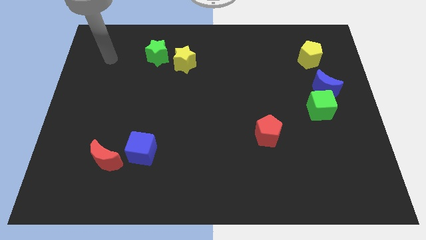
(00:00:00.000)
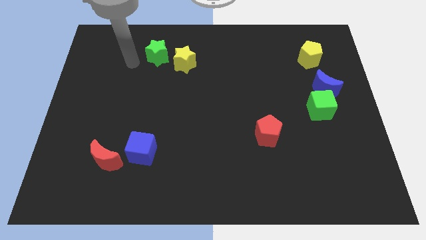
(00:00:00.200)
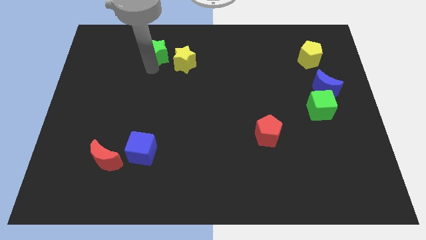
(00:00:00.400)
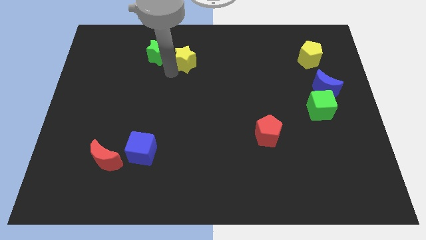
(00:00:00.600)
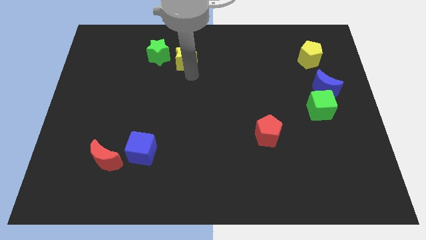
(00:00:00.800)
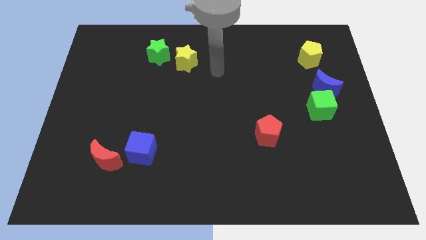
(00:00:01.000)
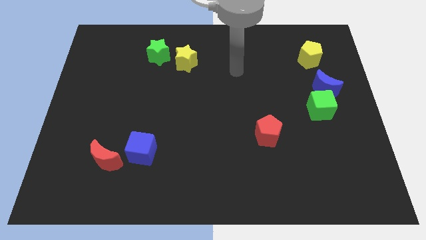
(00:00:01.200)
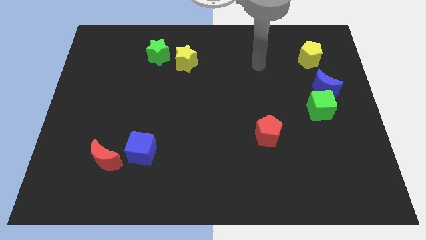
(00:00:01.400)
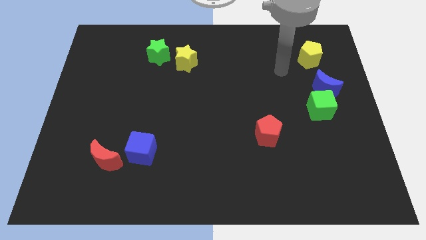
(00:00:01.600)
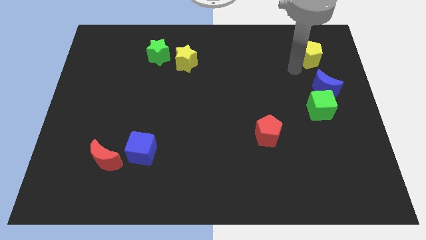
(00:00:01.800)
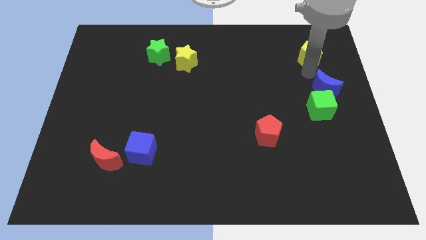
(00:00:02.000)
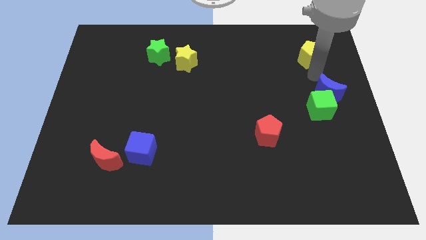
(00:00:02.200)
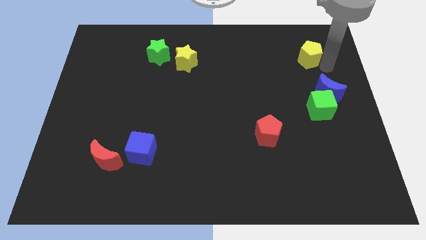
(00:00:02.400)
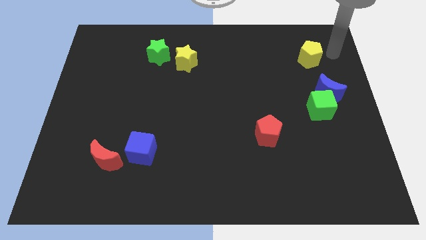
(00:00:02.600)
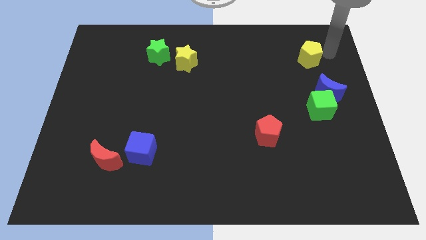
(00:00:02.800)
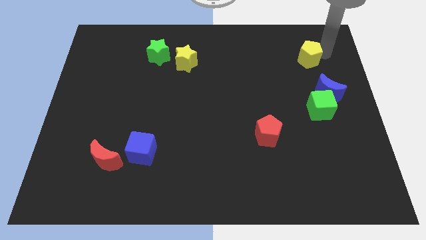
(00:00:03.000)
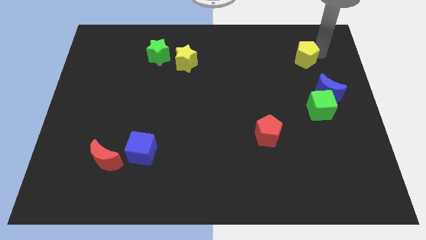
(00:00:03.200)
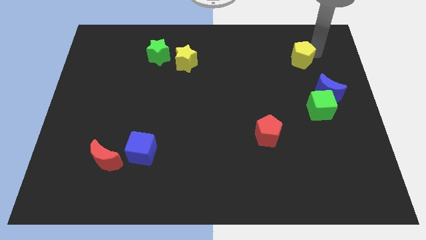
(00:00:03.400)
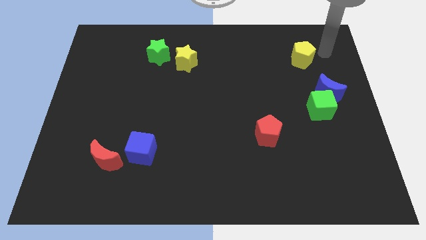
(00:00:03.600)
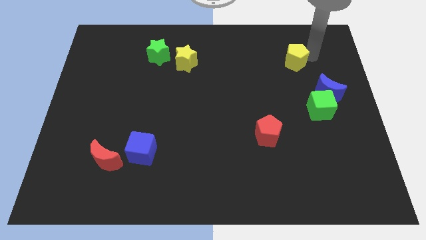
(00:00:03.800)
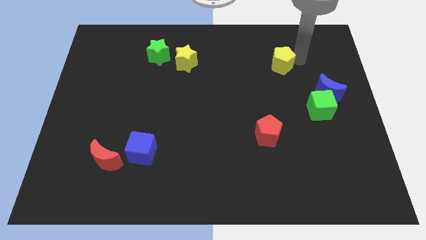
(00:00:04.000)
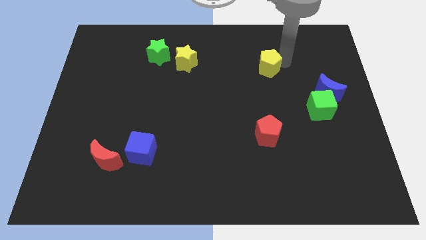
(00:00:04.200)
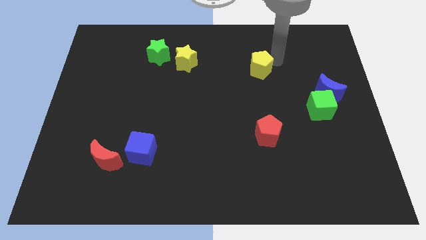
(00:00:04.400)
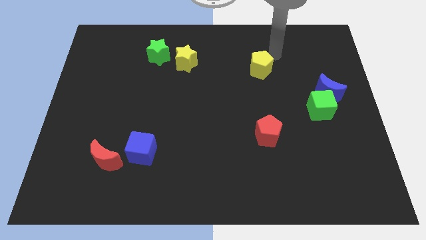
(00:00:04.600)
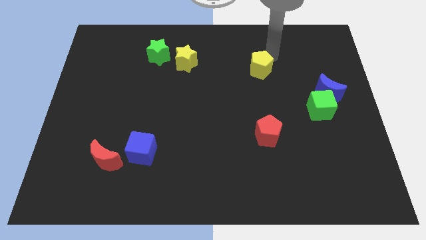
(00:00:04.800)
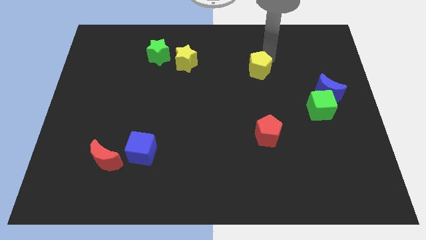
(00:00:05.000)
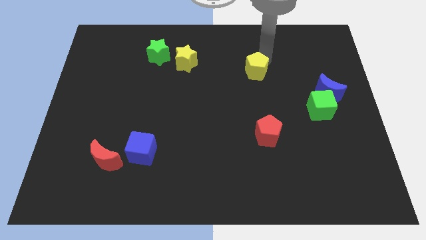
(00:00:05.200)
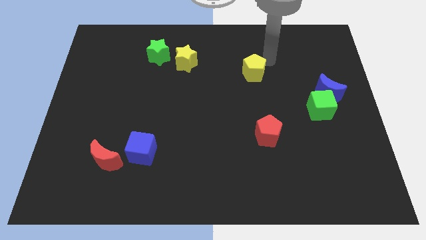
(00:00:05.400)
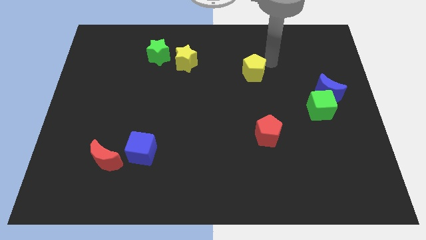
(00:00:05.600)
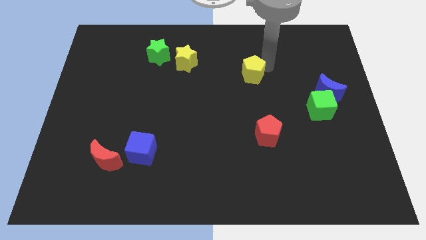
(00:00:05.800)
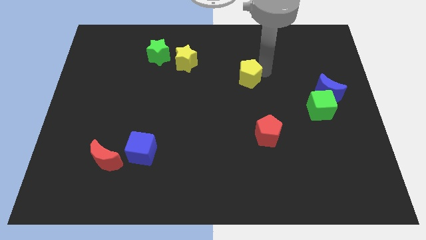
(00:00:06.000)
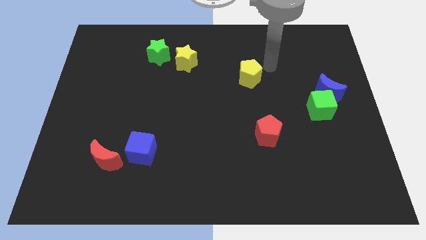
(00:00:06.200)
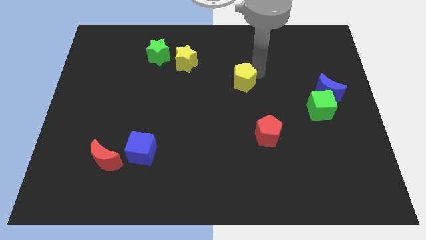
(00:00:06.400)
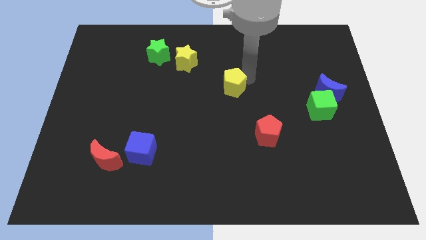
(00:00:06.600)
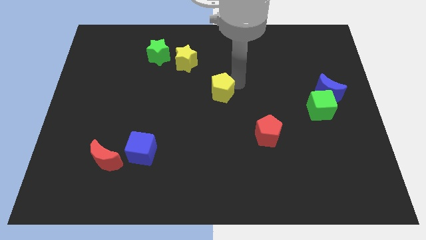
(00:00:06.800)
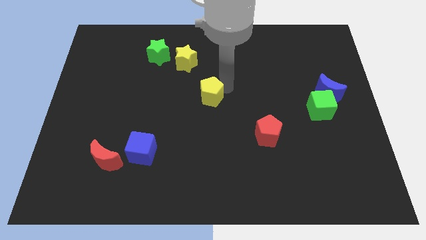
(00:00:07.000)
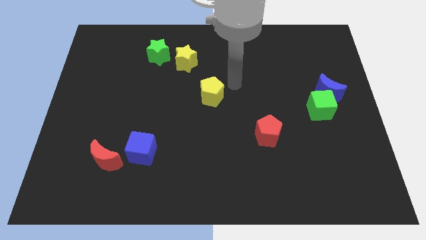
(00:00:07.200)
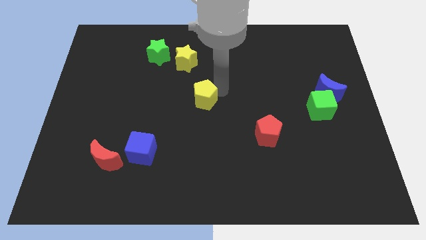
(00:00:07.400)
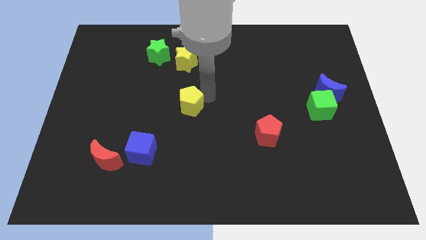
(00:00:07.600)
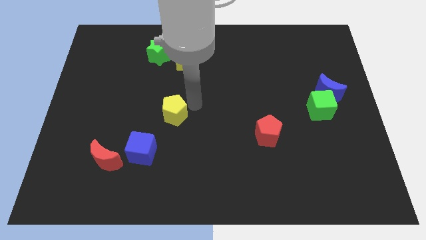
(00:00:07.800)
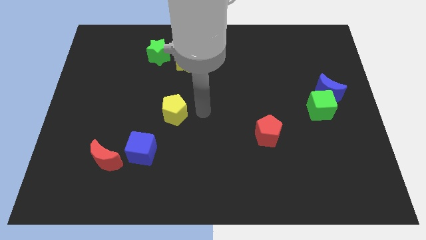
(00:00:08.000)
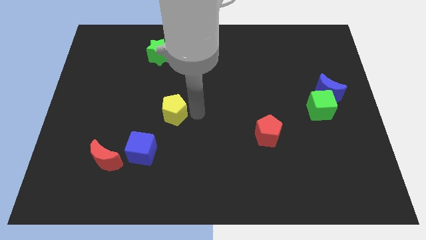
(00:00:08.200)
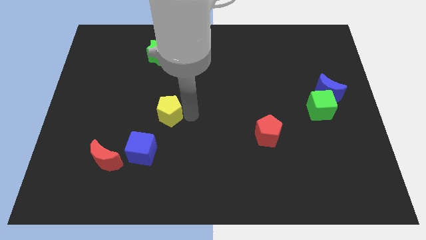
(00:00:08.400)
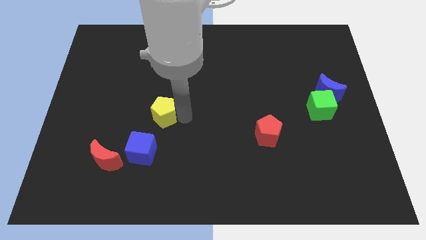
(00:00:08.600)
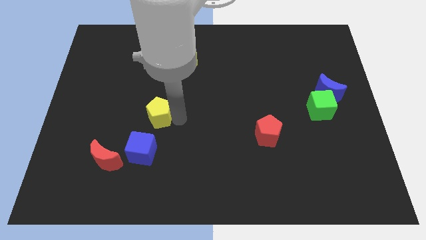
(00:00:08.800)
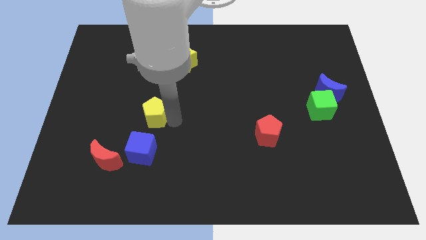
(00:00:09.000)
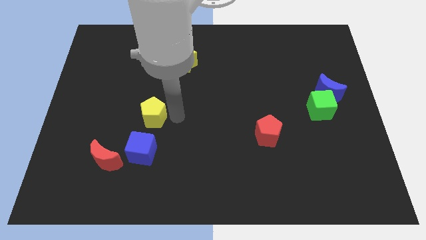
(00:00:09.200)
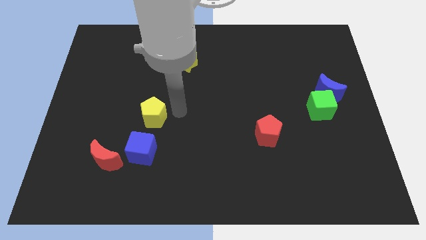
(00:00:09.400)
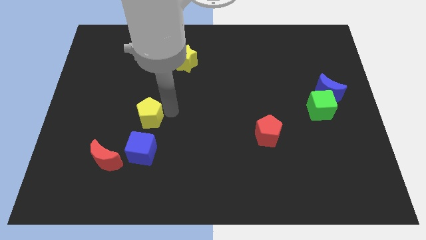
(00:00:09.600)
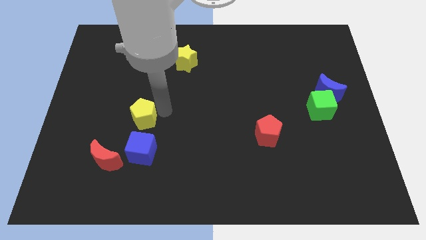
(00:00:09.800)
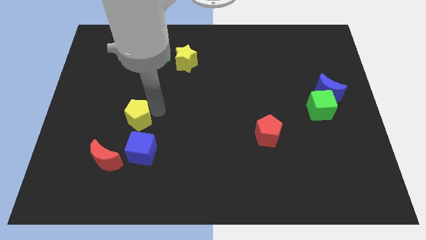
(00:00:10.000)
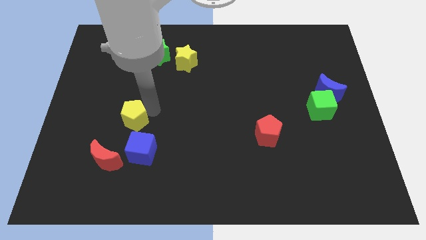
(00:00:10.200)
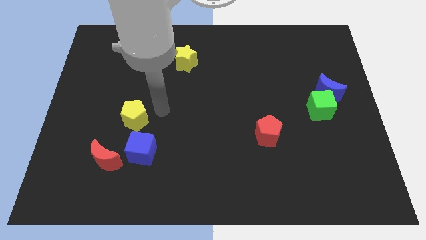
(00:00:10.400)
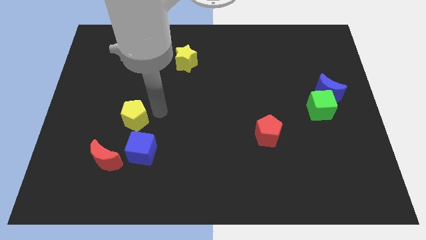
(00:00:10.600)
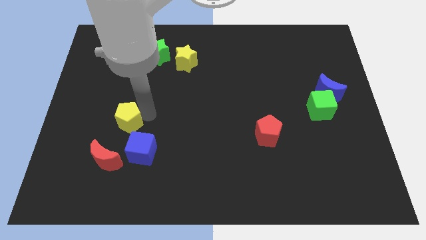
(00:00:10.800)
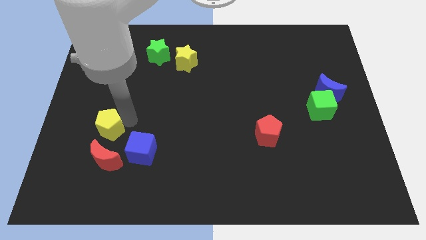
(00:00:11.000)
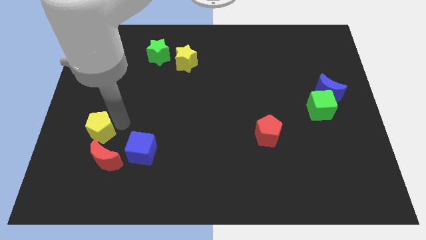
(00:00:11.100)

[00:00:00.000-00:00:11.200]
push the yellow pentagon to the top left of the red moon

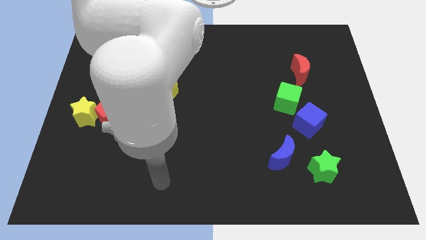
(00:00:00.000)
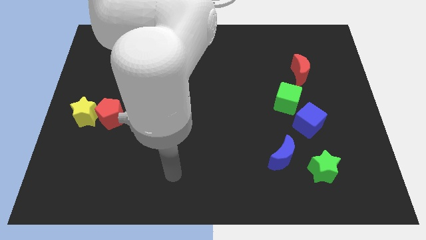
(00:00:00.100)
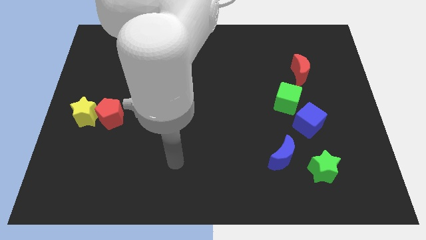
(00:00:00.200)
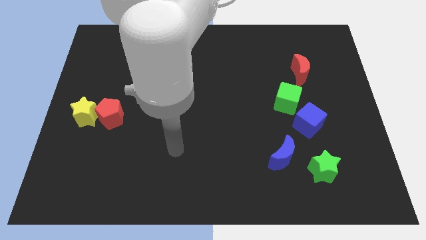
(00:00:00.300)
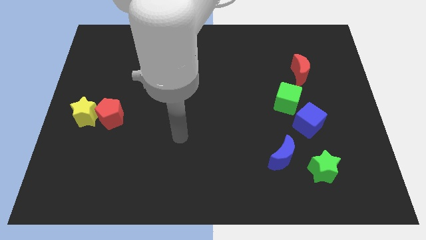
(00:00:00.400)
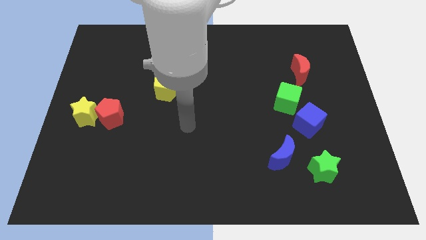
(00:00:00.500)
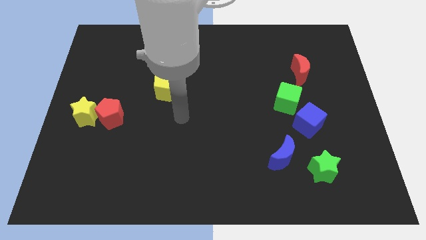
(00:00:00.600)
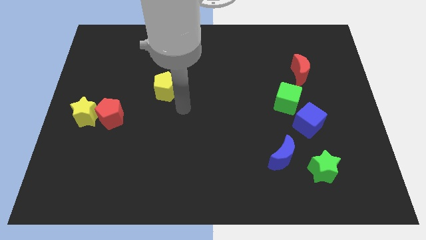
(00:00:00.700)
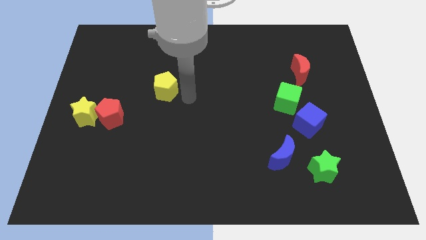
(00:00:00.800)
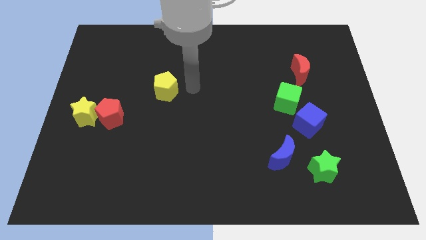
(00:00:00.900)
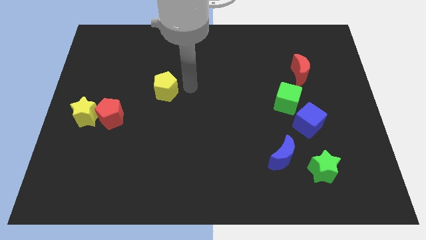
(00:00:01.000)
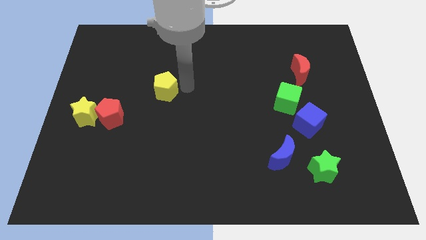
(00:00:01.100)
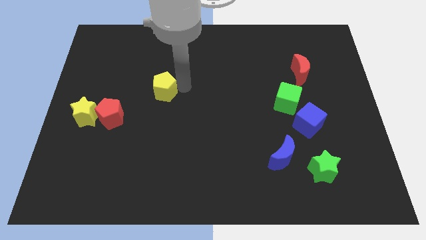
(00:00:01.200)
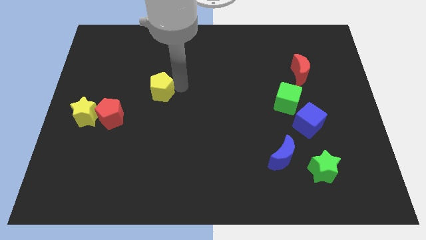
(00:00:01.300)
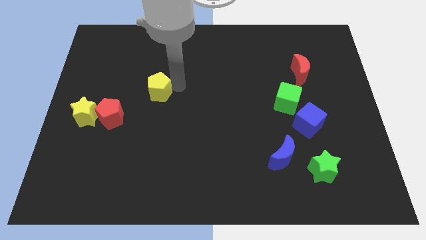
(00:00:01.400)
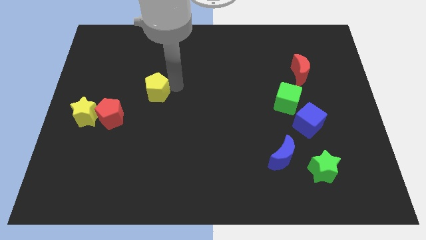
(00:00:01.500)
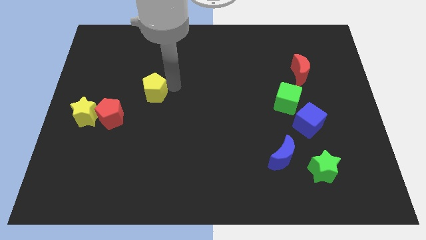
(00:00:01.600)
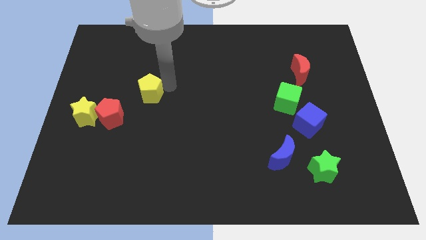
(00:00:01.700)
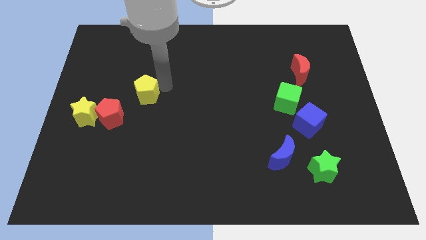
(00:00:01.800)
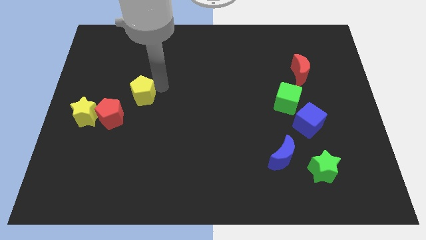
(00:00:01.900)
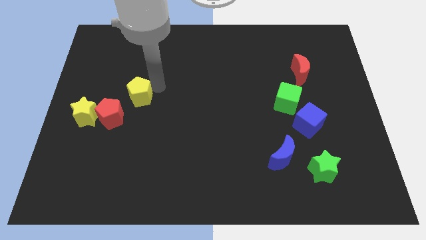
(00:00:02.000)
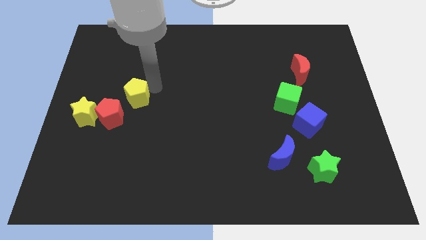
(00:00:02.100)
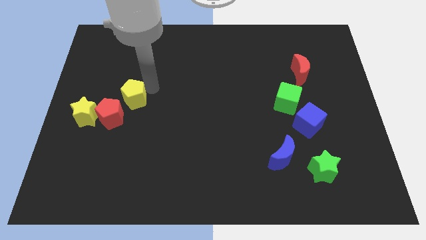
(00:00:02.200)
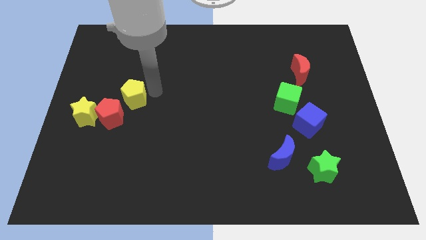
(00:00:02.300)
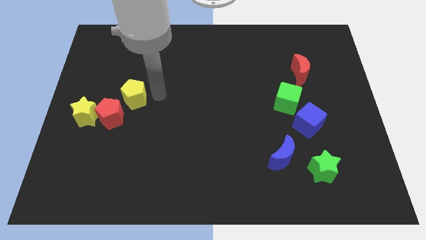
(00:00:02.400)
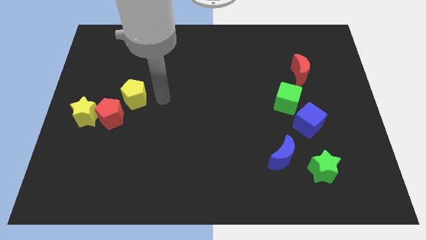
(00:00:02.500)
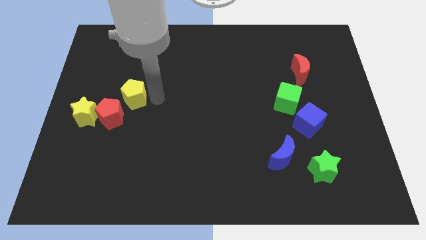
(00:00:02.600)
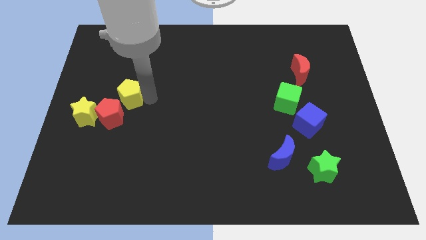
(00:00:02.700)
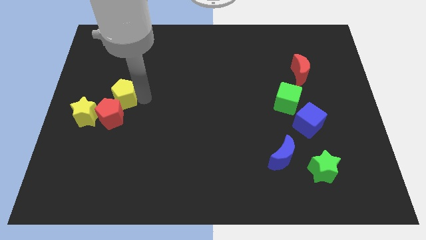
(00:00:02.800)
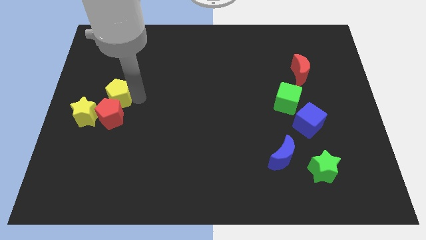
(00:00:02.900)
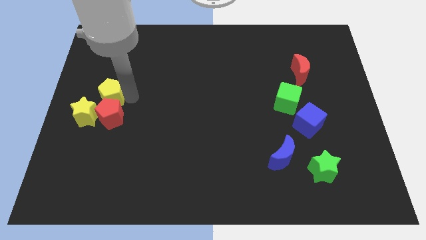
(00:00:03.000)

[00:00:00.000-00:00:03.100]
slide the yellow pentagon to the top left of the red pentagon
